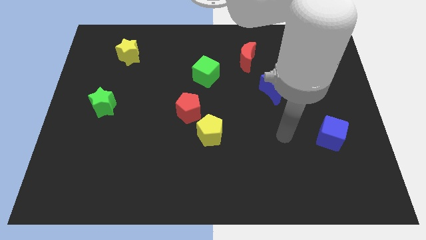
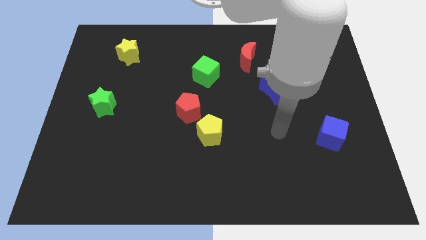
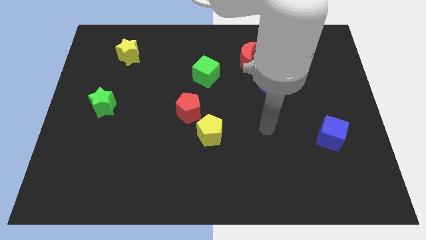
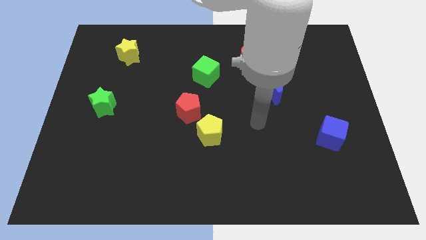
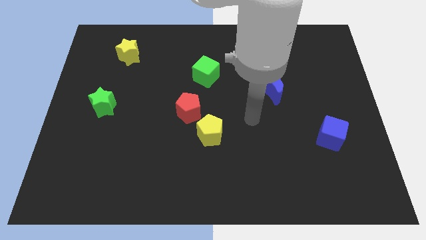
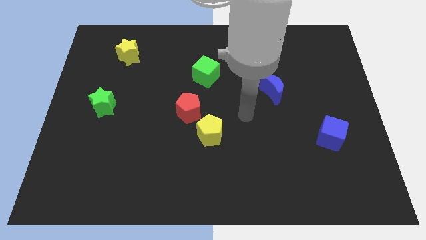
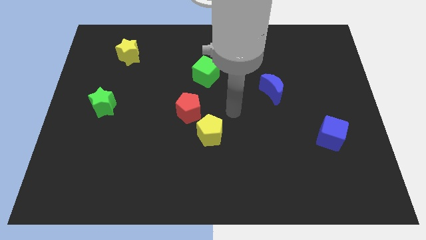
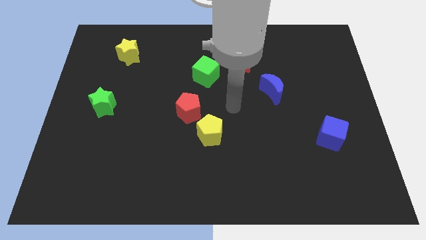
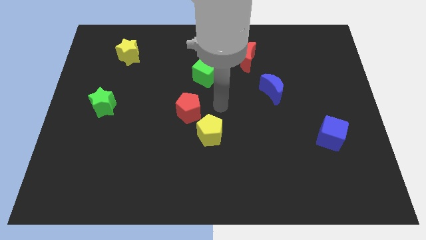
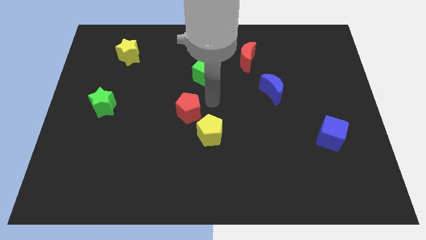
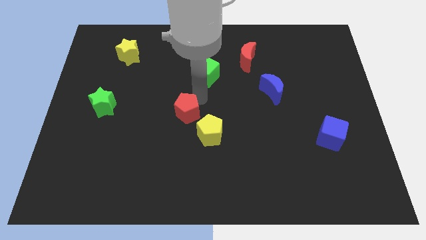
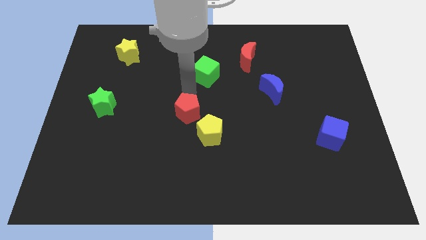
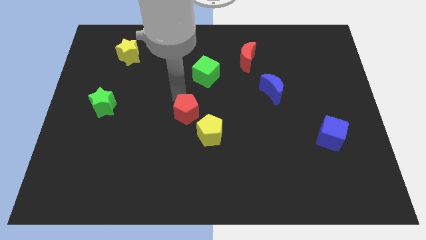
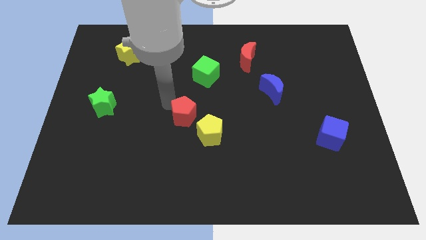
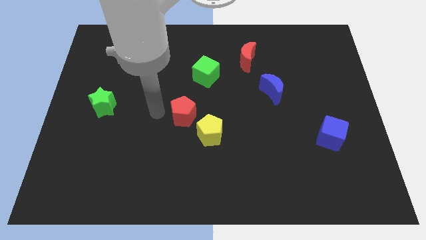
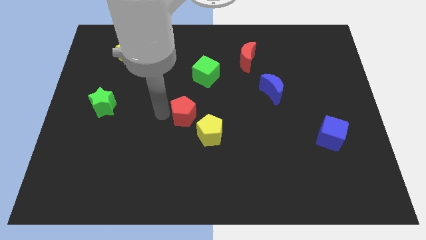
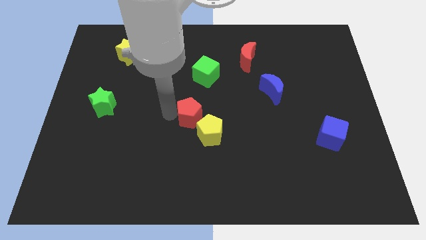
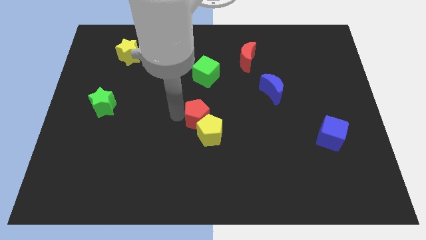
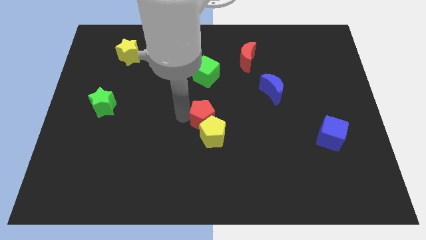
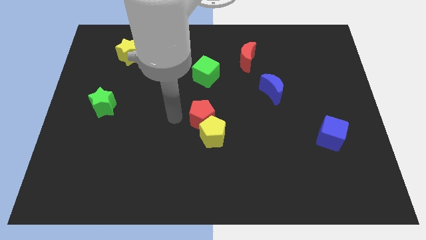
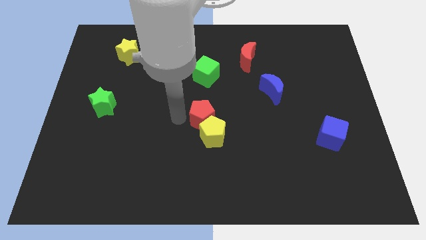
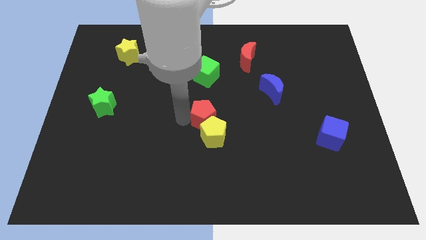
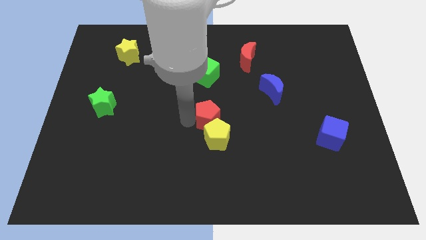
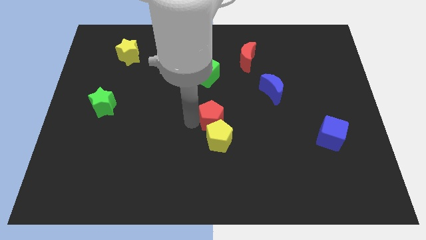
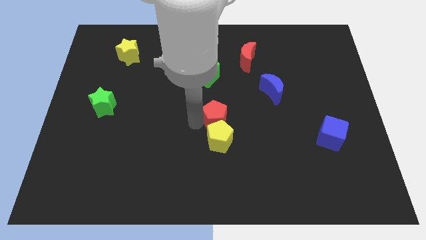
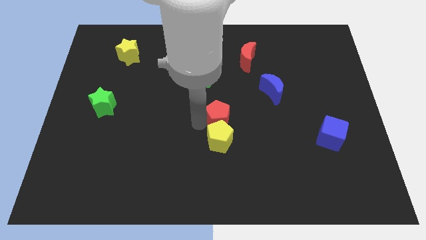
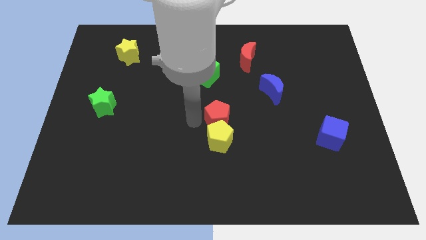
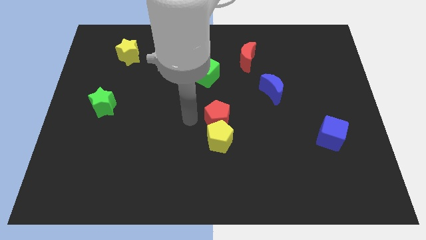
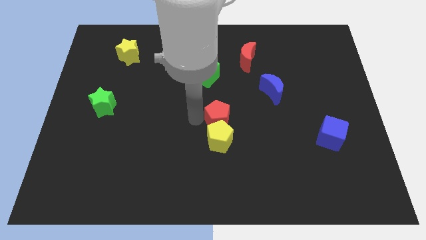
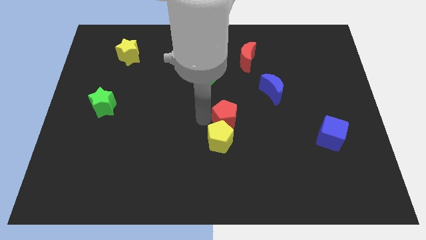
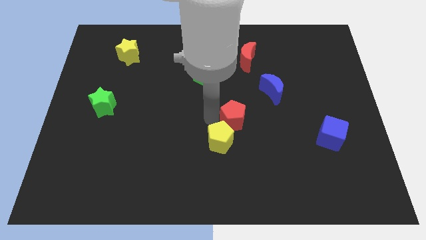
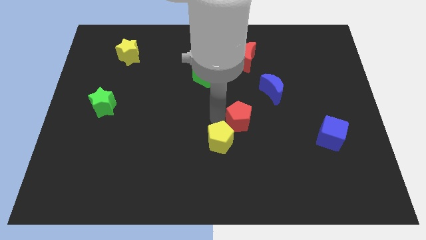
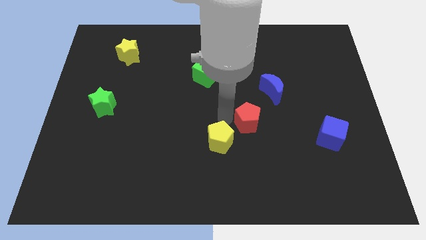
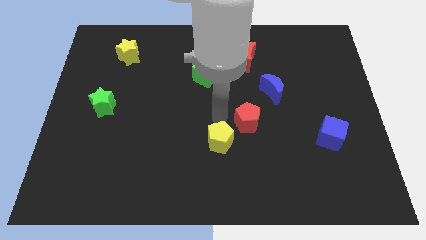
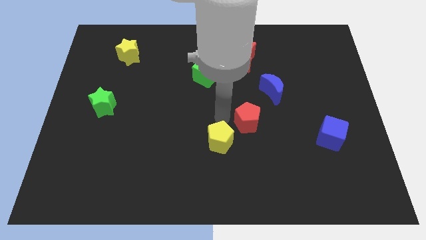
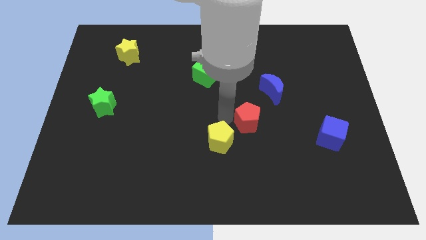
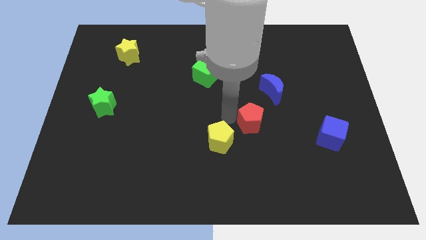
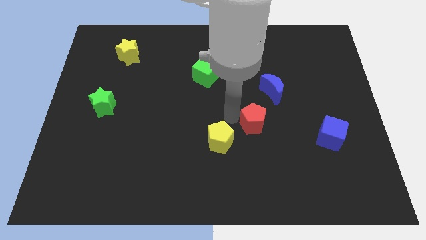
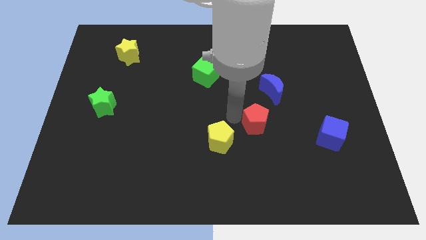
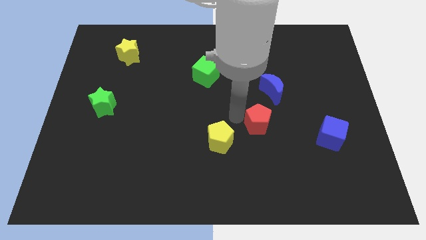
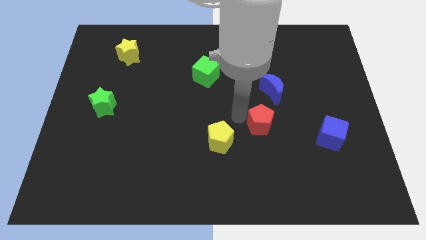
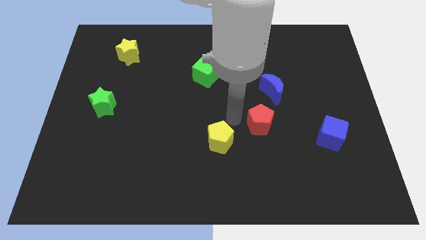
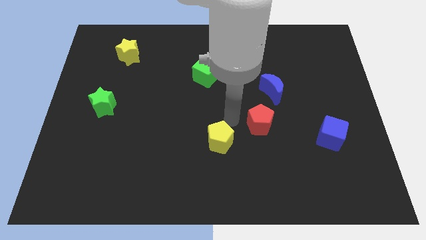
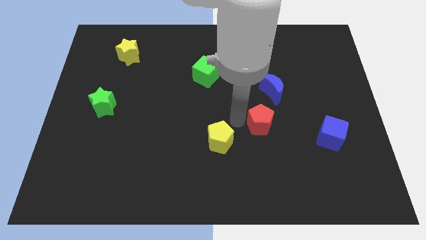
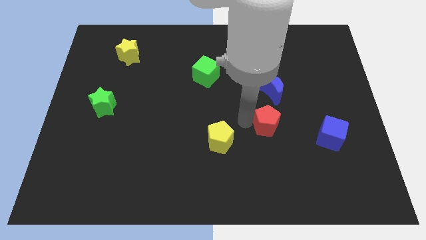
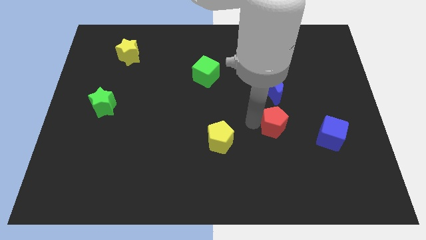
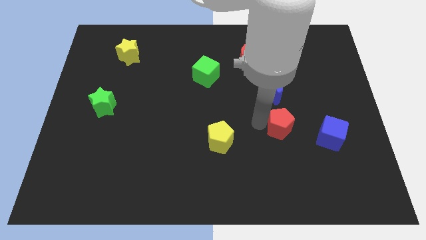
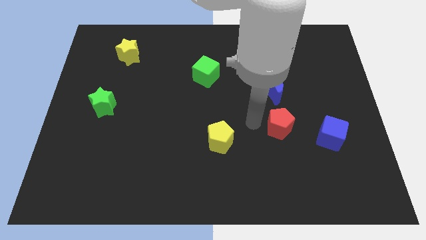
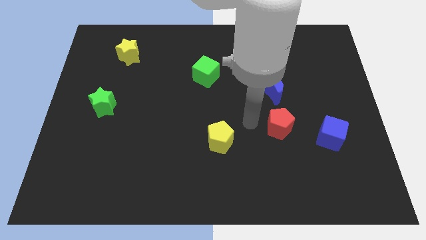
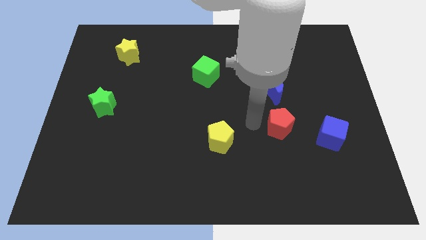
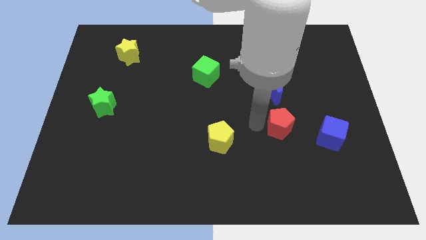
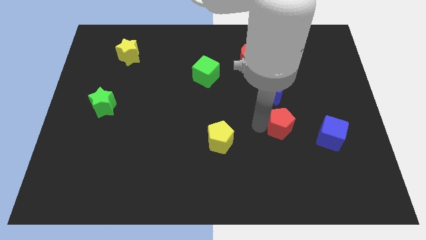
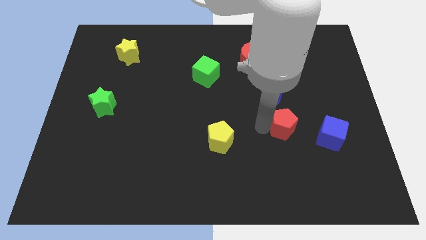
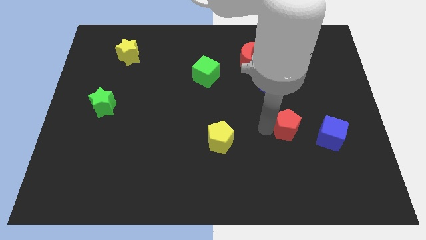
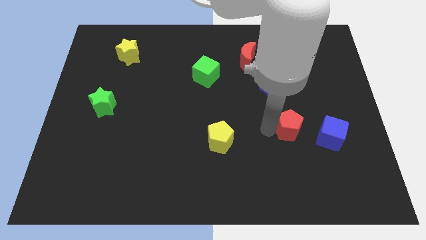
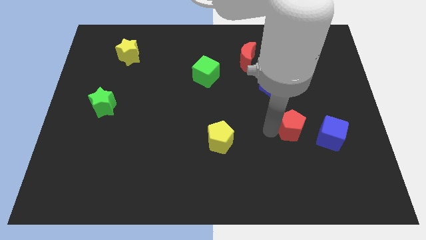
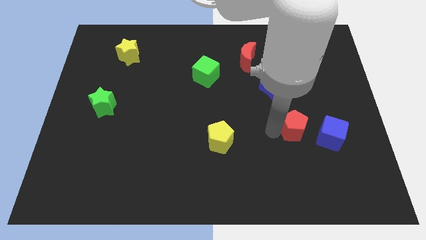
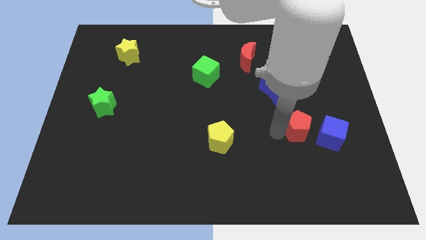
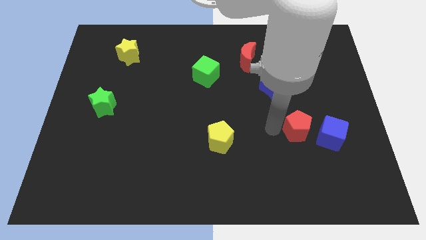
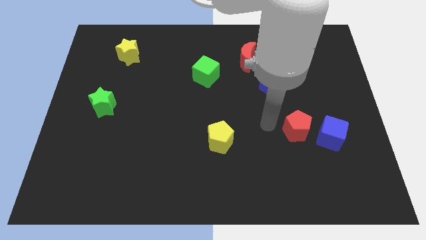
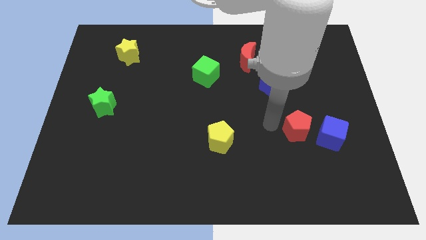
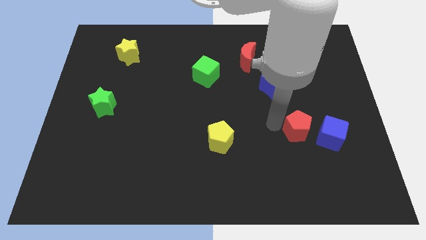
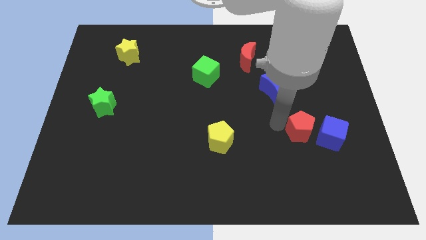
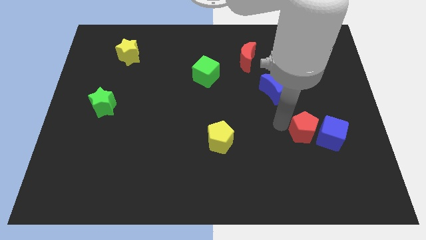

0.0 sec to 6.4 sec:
slide the red pentagon towards the blue cube
